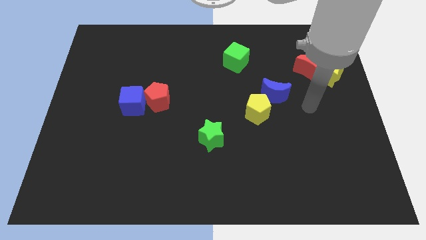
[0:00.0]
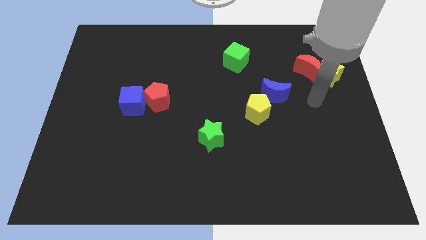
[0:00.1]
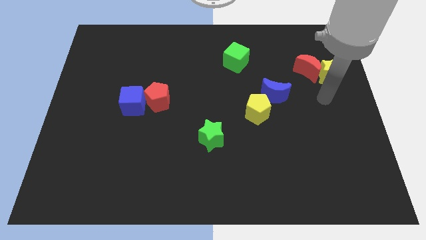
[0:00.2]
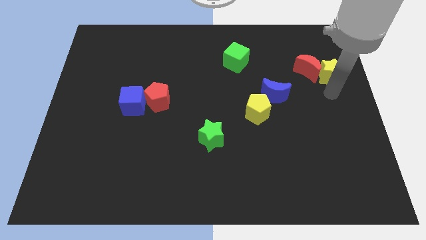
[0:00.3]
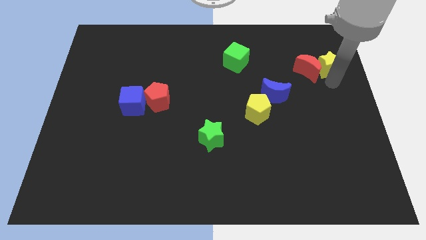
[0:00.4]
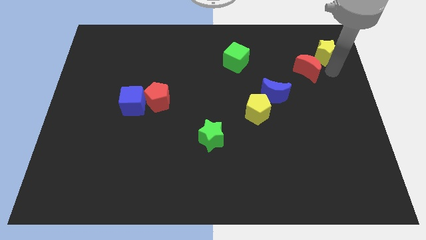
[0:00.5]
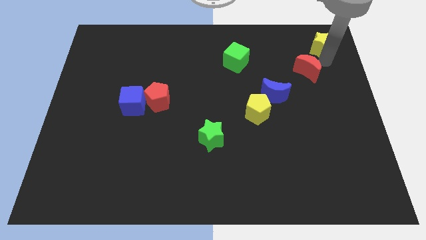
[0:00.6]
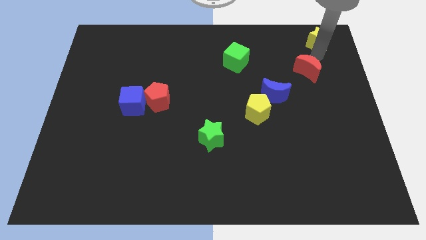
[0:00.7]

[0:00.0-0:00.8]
move the red moon away from the yellow star

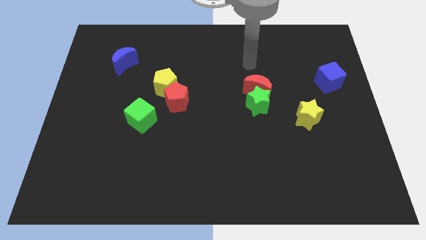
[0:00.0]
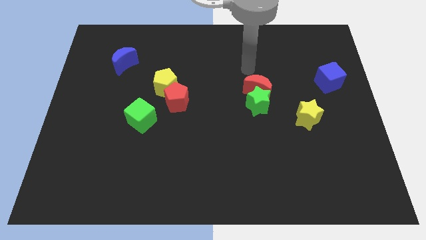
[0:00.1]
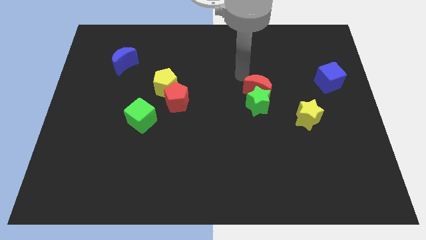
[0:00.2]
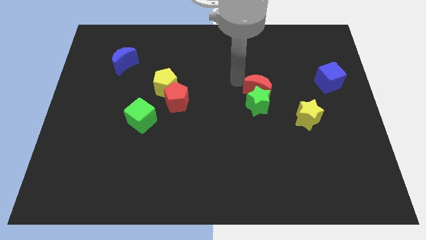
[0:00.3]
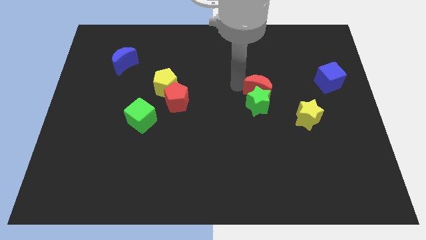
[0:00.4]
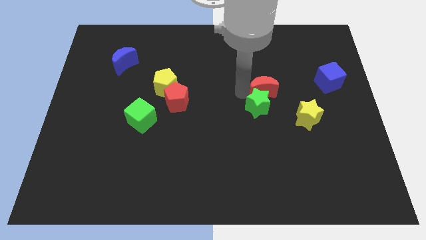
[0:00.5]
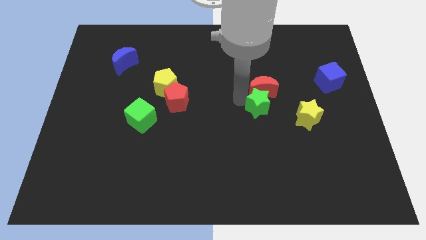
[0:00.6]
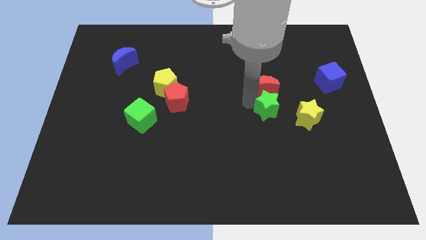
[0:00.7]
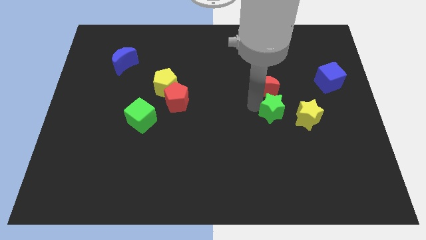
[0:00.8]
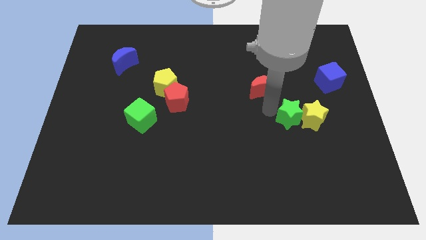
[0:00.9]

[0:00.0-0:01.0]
separate the red moon from the green star

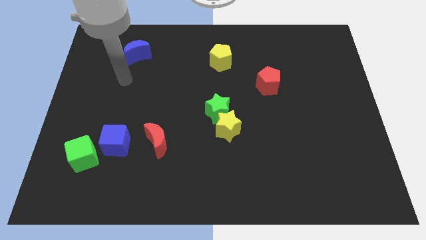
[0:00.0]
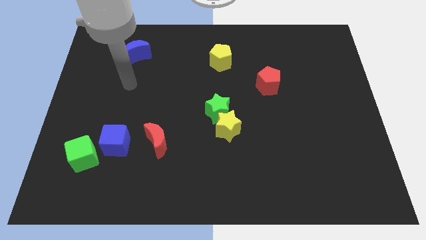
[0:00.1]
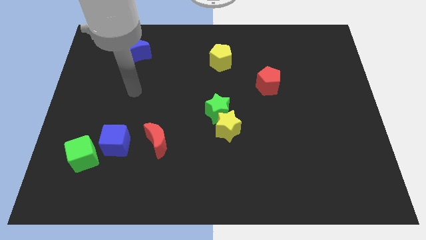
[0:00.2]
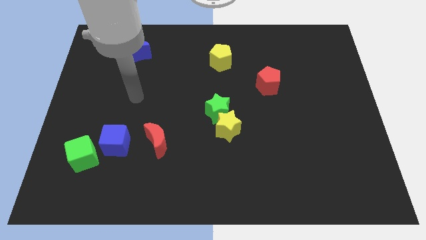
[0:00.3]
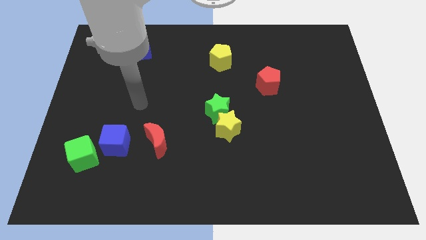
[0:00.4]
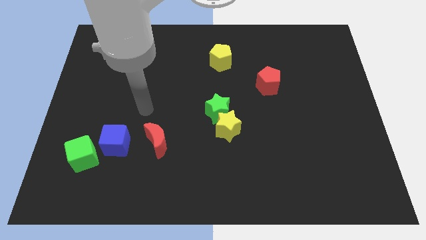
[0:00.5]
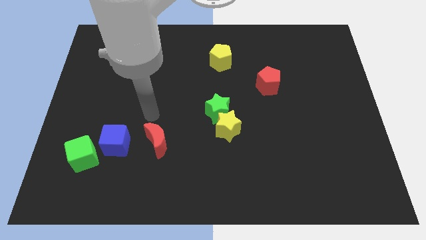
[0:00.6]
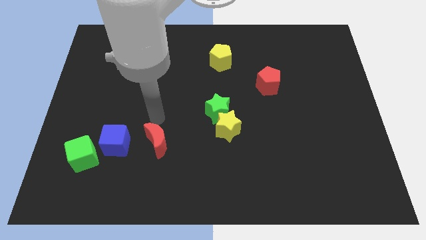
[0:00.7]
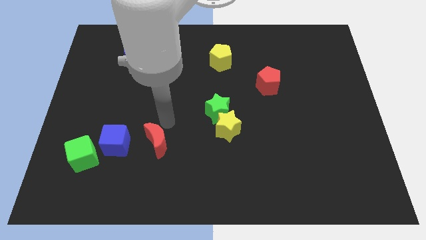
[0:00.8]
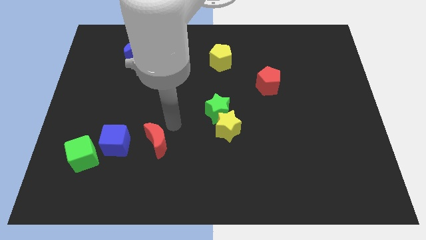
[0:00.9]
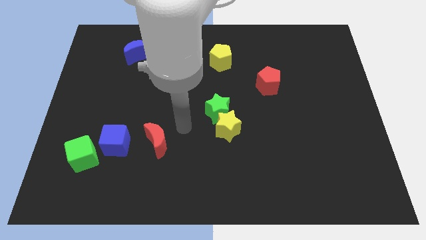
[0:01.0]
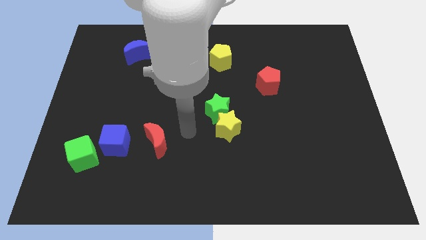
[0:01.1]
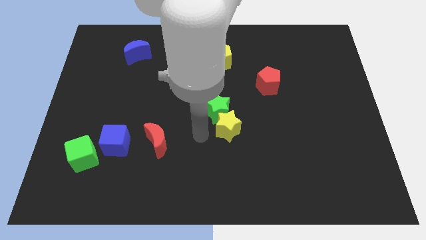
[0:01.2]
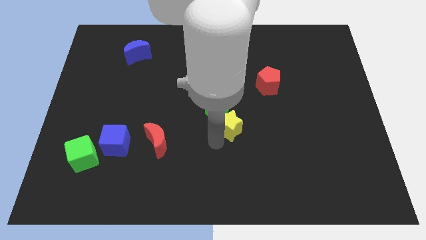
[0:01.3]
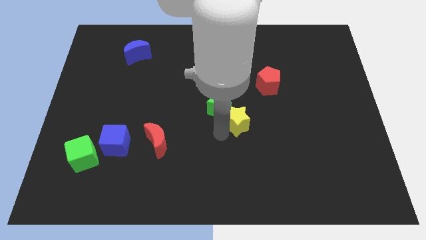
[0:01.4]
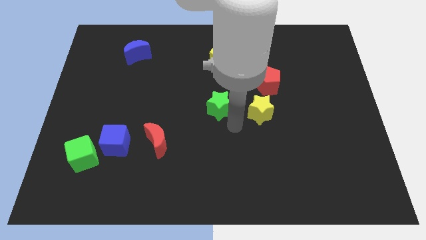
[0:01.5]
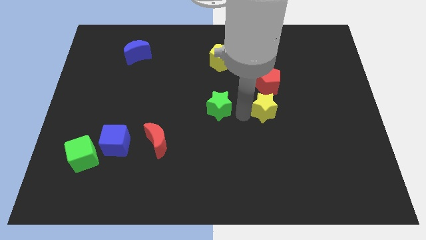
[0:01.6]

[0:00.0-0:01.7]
pull the green star apart from the yellow star

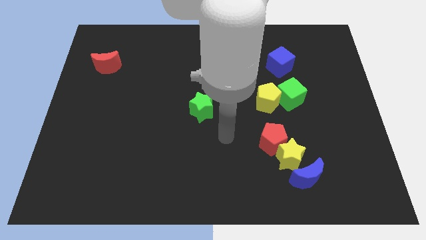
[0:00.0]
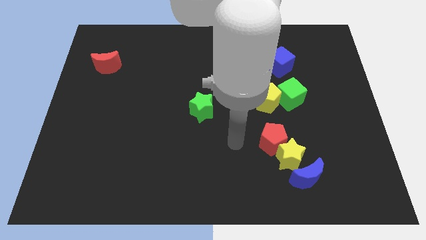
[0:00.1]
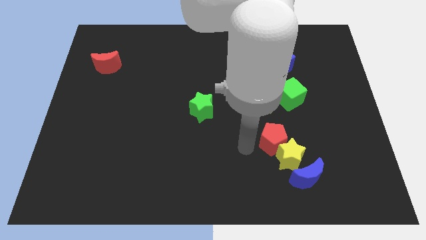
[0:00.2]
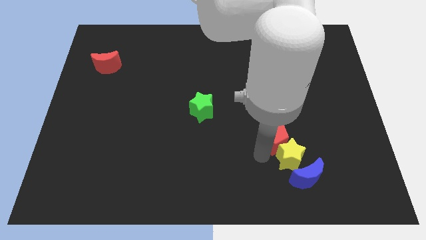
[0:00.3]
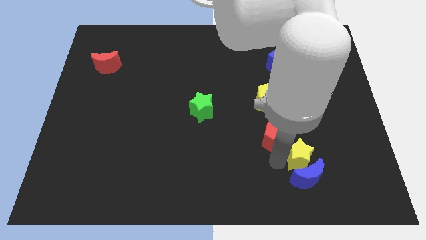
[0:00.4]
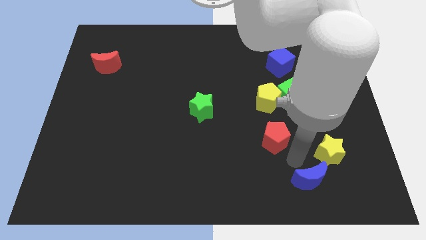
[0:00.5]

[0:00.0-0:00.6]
move the red pentagon away from the yellow star

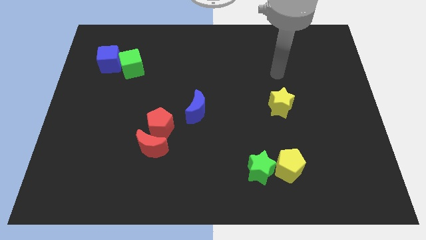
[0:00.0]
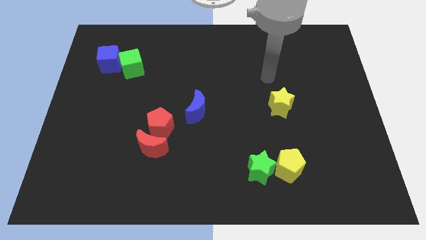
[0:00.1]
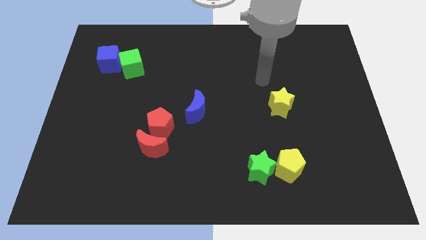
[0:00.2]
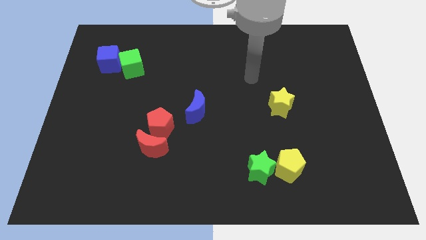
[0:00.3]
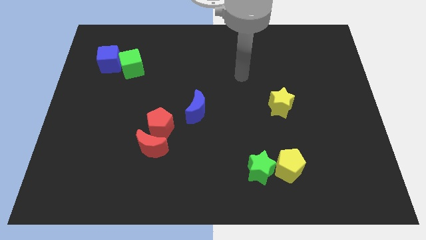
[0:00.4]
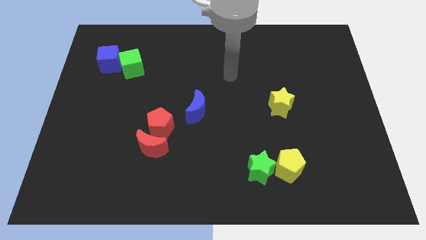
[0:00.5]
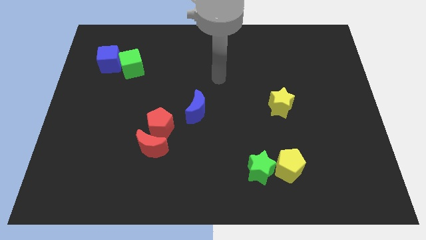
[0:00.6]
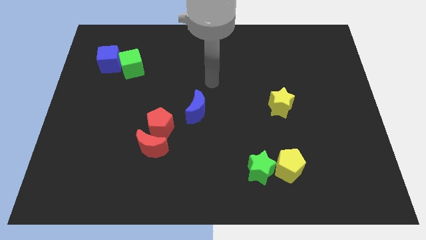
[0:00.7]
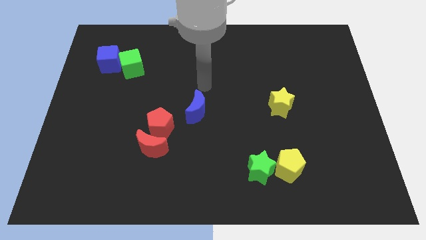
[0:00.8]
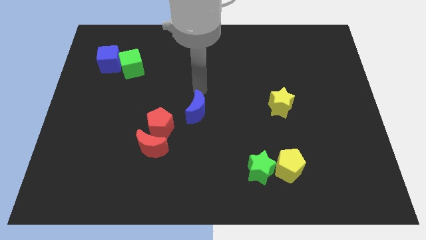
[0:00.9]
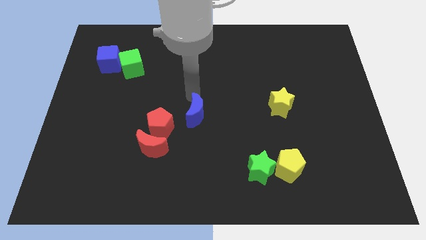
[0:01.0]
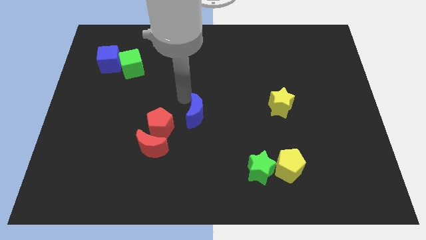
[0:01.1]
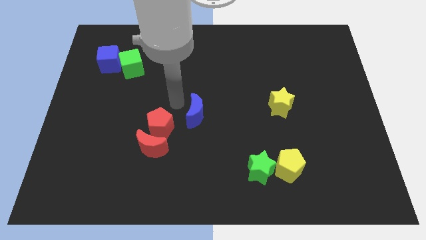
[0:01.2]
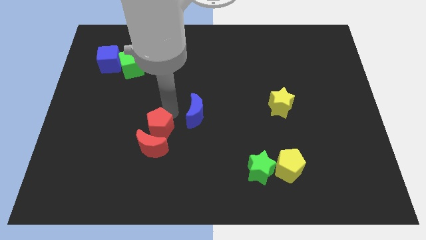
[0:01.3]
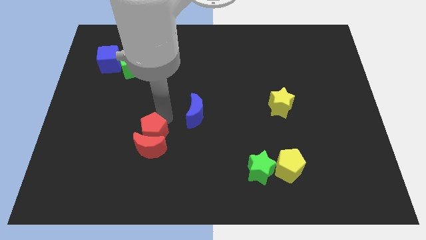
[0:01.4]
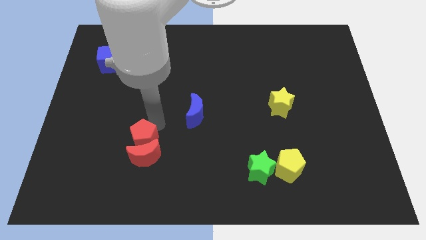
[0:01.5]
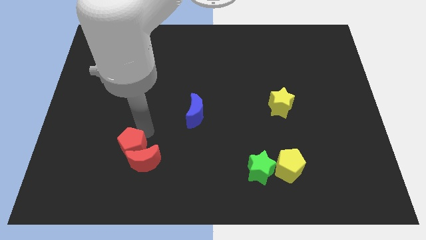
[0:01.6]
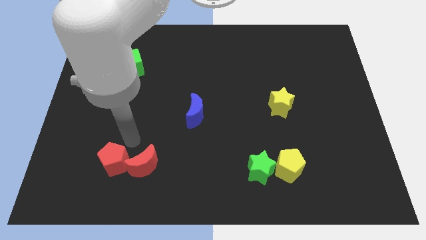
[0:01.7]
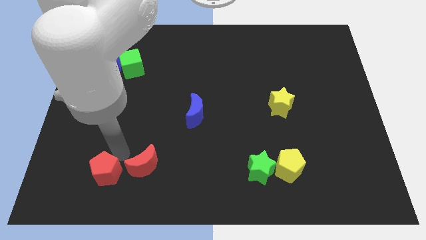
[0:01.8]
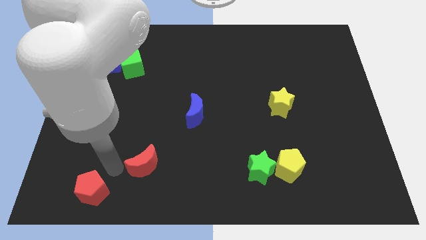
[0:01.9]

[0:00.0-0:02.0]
move the red moon away from the red pentagon

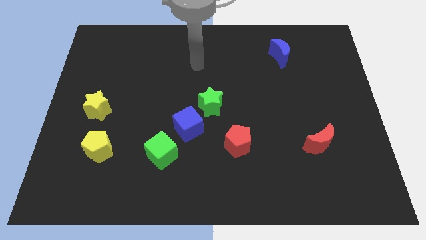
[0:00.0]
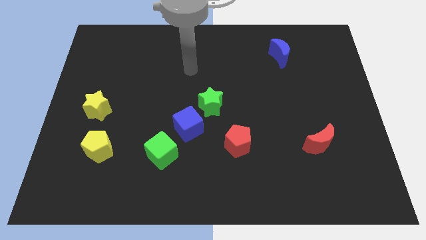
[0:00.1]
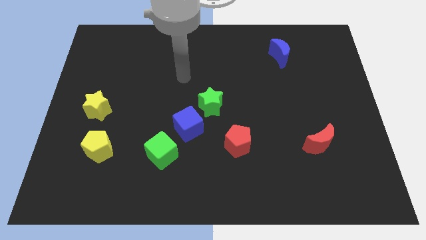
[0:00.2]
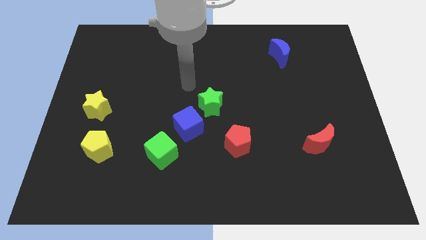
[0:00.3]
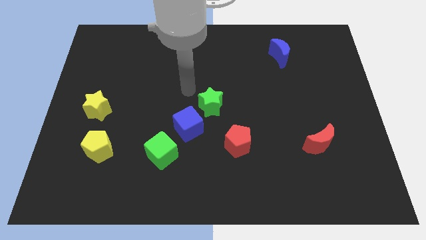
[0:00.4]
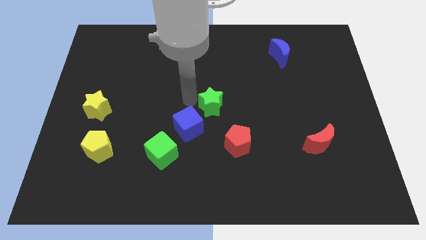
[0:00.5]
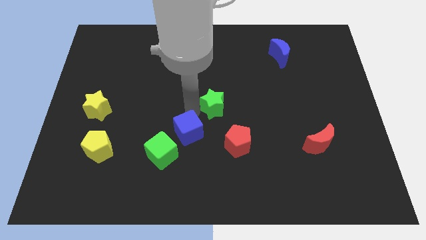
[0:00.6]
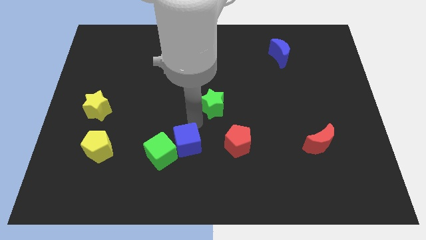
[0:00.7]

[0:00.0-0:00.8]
pull the green star apart from the blue cube

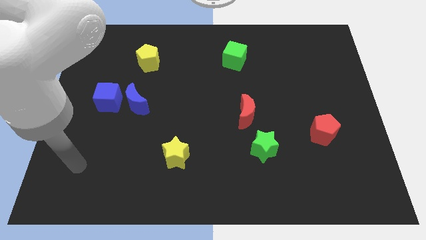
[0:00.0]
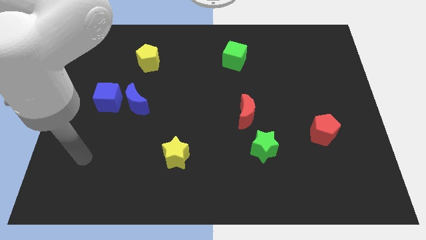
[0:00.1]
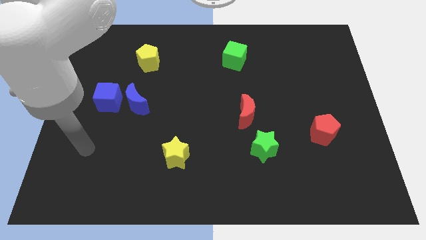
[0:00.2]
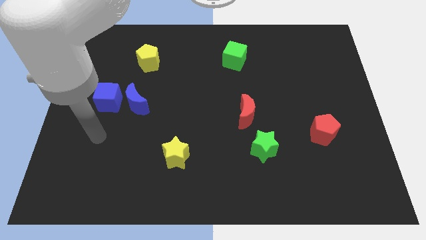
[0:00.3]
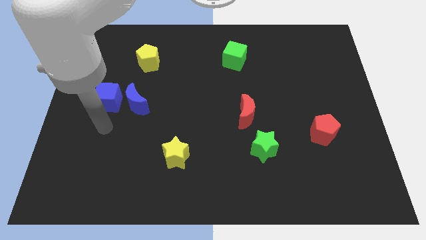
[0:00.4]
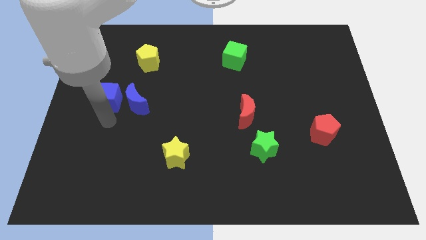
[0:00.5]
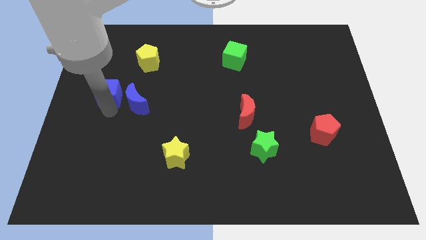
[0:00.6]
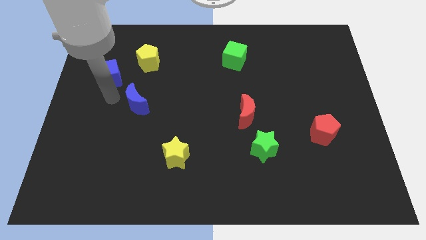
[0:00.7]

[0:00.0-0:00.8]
pull the blue moon apart from the blue cube

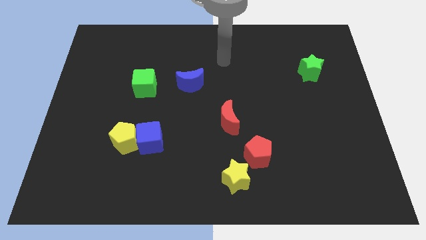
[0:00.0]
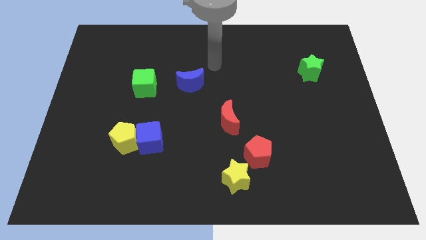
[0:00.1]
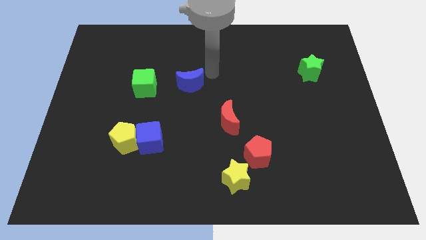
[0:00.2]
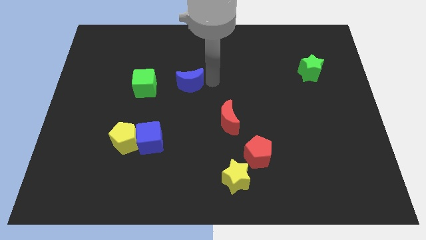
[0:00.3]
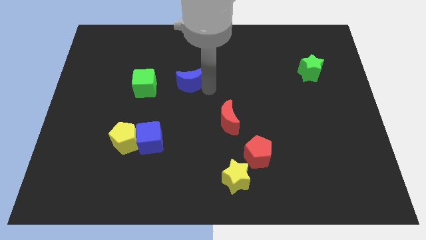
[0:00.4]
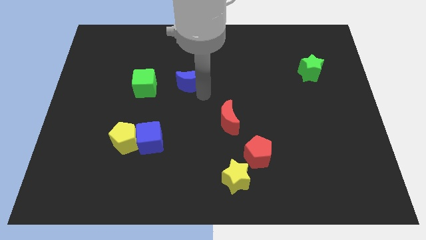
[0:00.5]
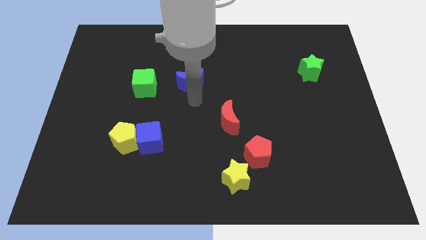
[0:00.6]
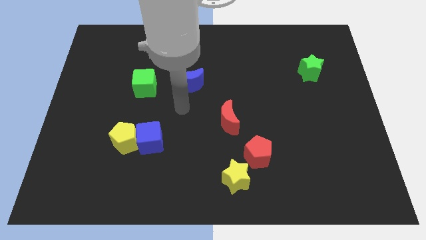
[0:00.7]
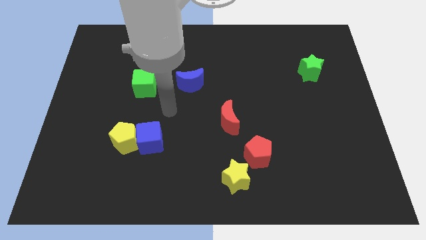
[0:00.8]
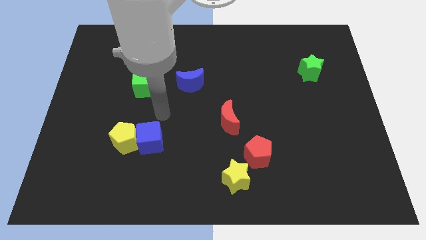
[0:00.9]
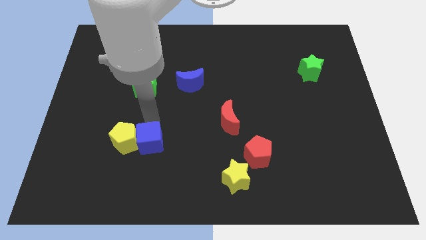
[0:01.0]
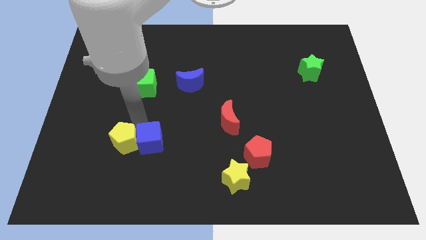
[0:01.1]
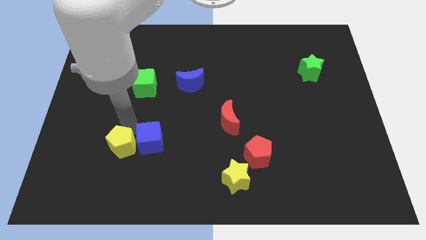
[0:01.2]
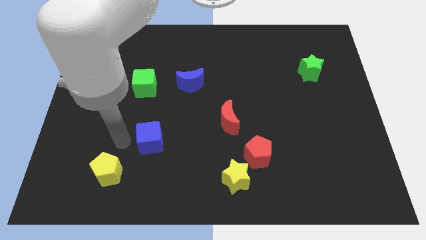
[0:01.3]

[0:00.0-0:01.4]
pull the blue cube apart from the yellow pentagon

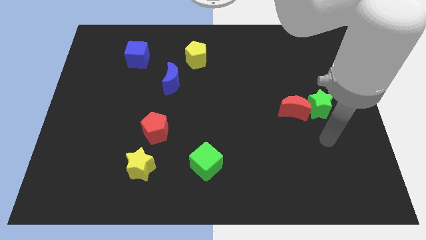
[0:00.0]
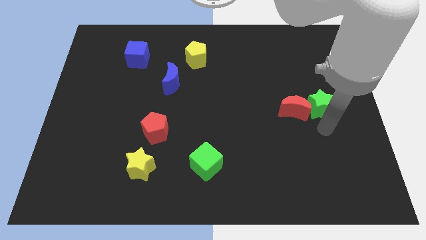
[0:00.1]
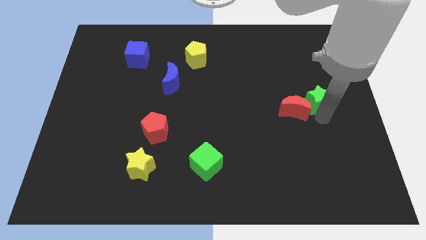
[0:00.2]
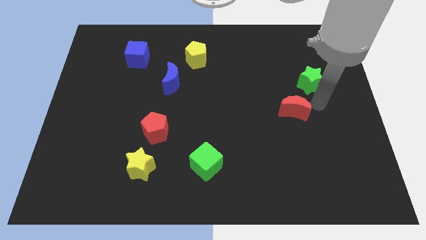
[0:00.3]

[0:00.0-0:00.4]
move the red moon away from the green star
